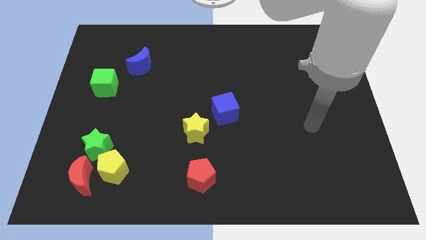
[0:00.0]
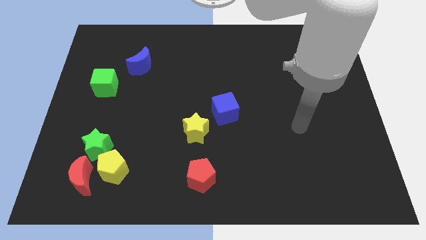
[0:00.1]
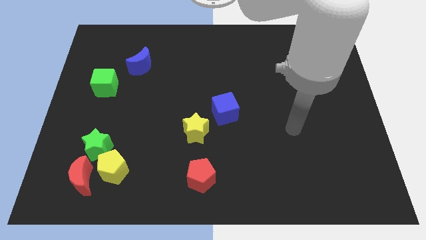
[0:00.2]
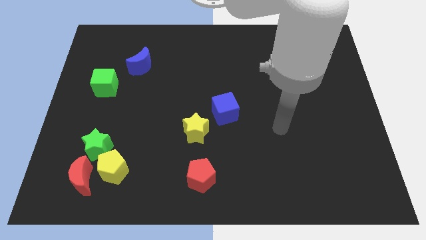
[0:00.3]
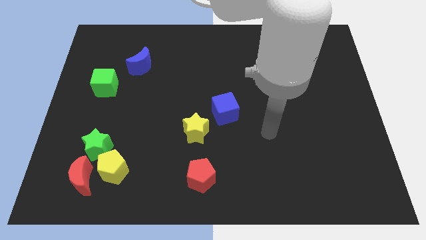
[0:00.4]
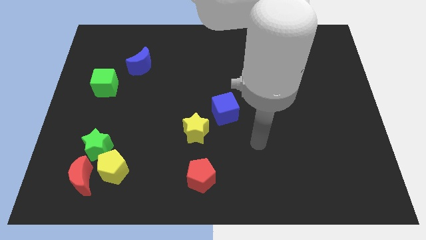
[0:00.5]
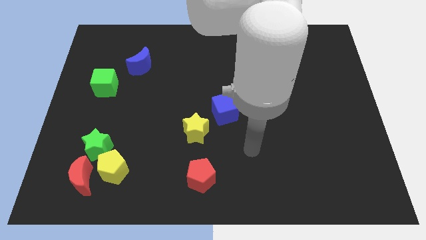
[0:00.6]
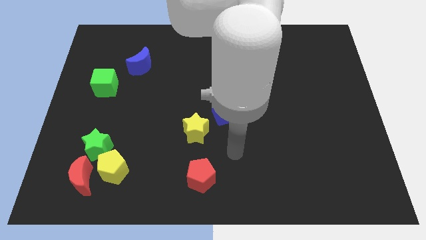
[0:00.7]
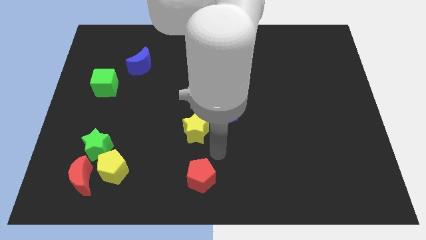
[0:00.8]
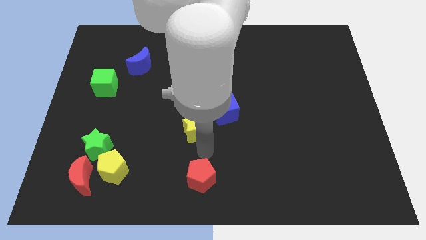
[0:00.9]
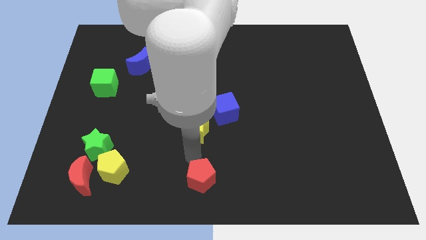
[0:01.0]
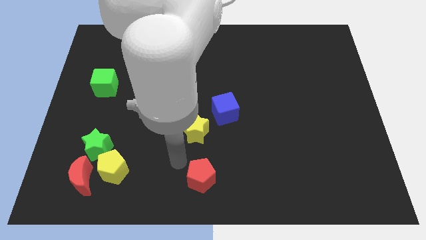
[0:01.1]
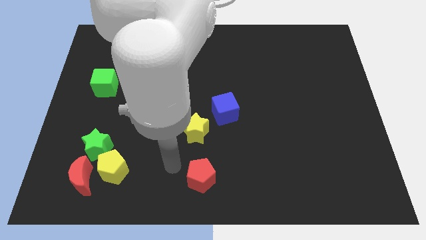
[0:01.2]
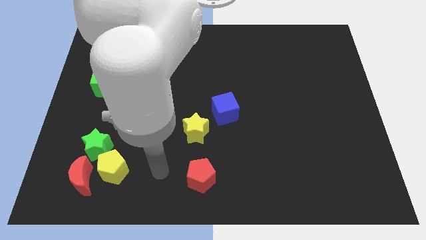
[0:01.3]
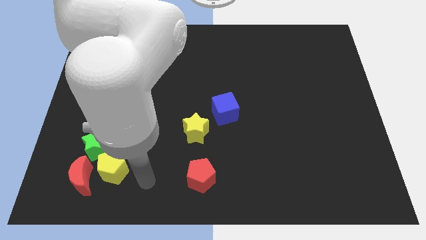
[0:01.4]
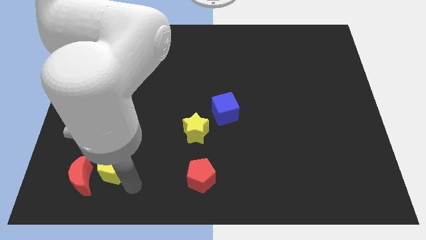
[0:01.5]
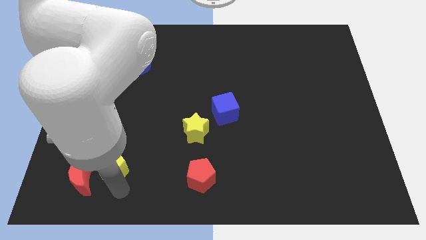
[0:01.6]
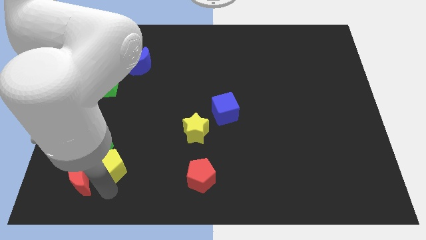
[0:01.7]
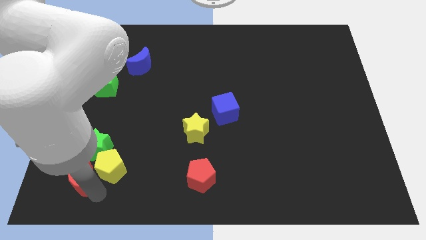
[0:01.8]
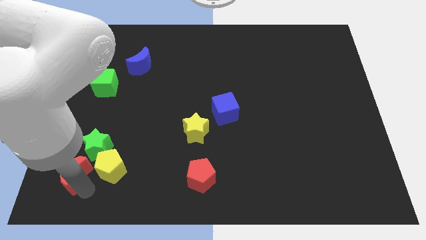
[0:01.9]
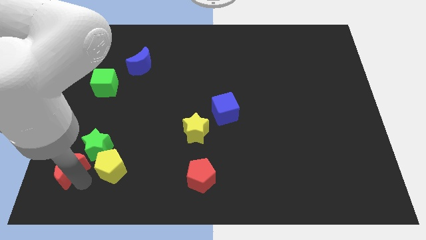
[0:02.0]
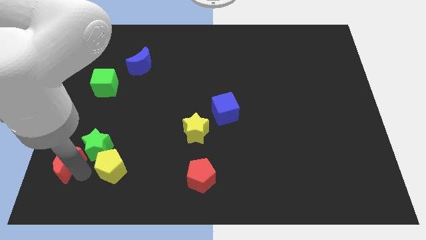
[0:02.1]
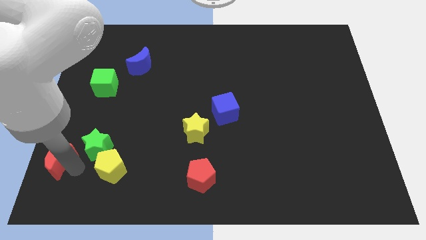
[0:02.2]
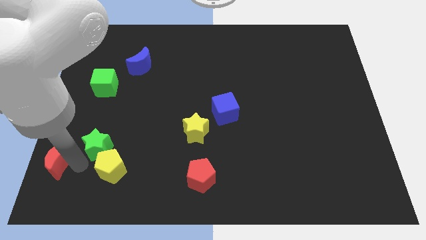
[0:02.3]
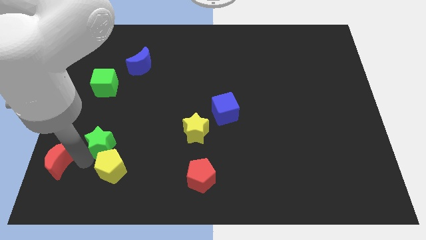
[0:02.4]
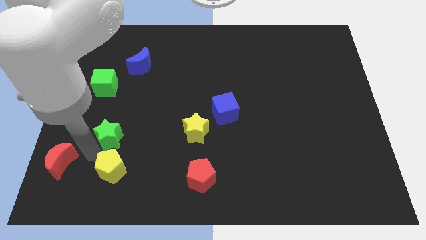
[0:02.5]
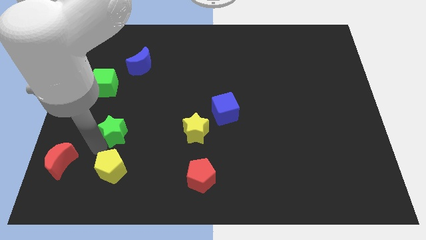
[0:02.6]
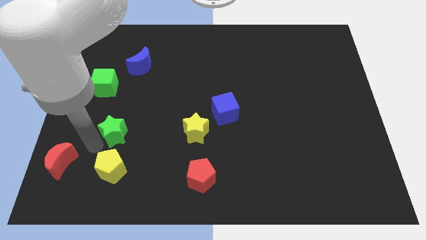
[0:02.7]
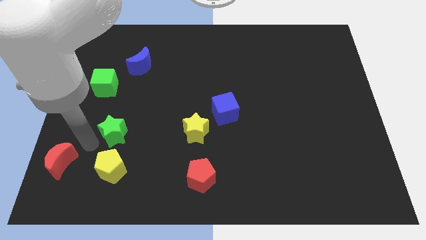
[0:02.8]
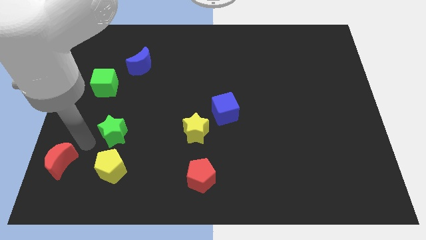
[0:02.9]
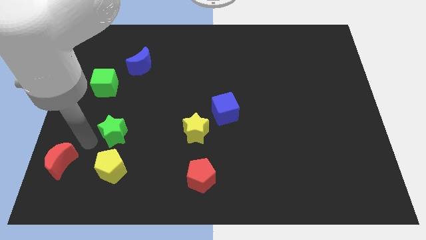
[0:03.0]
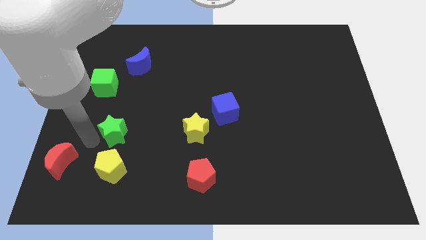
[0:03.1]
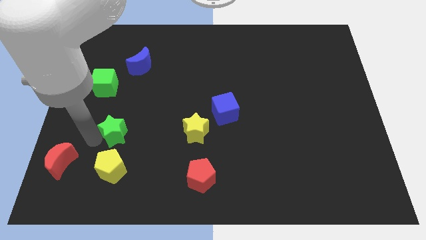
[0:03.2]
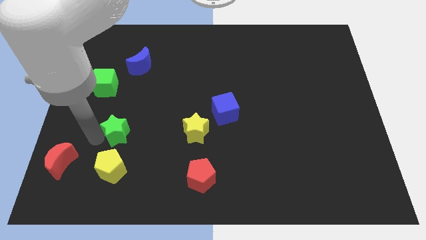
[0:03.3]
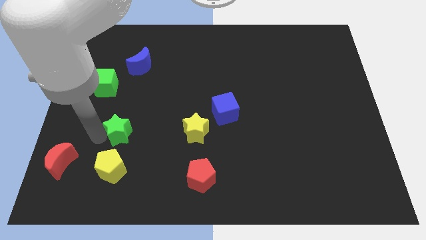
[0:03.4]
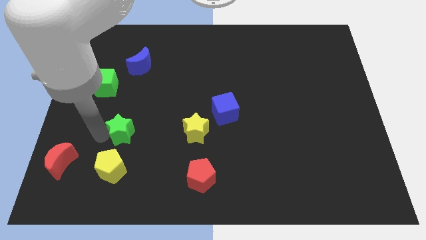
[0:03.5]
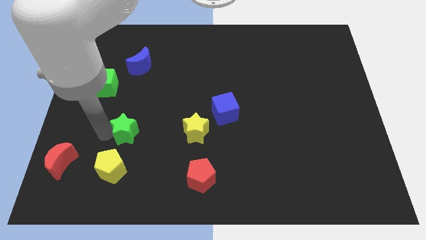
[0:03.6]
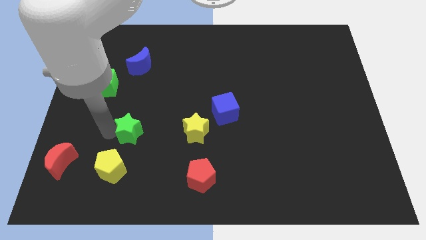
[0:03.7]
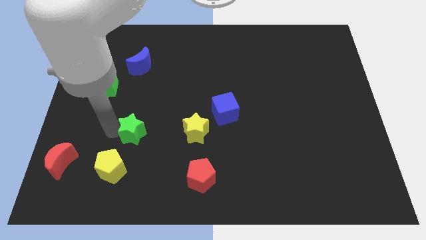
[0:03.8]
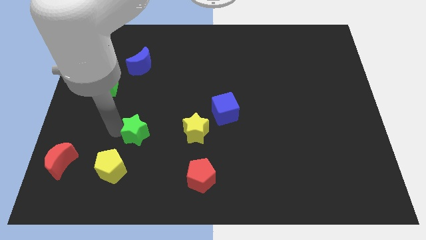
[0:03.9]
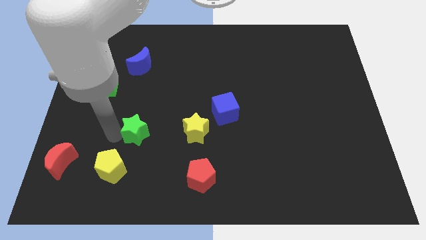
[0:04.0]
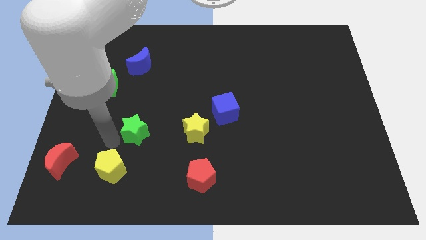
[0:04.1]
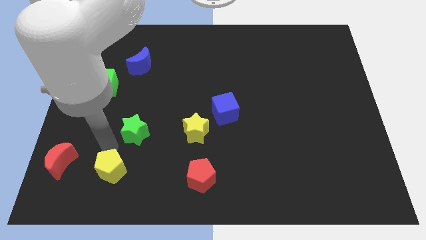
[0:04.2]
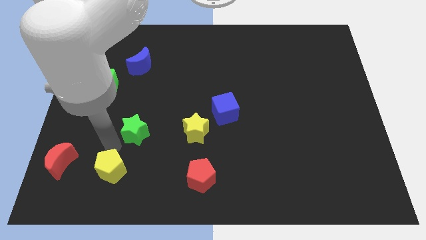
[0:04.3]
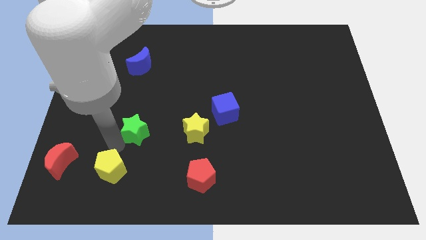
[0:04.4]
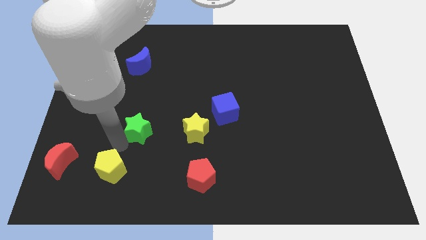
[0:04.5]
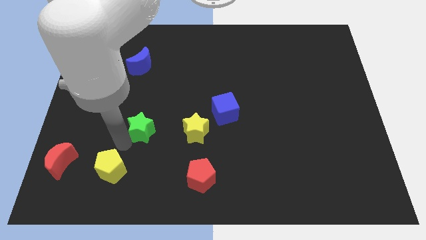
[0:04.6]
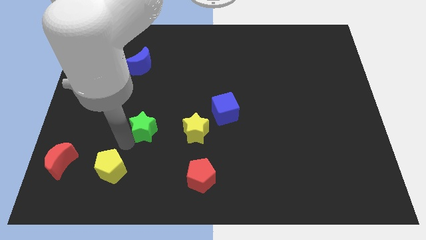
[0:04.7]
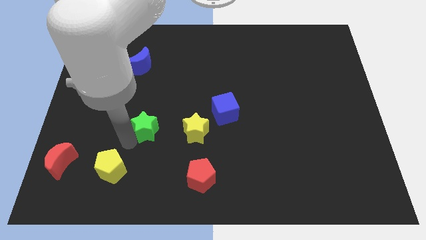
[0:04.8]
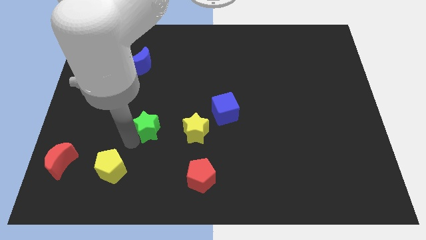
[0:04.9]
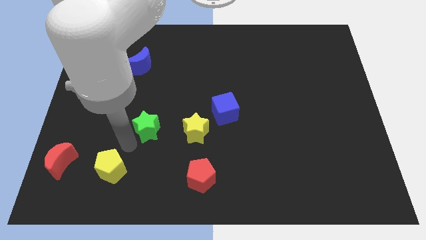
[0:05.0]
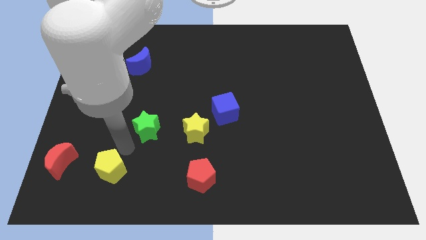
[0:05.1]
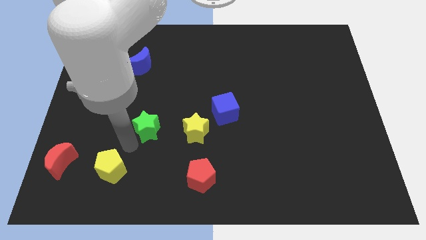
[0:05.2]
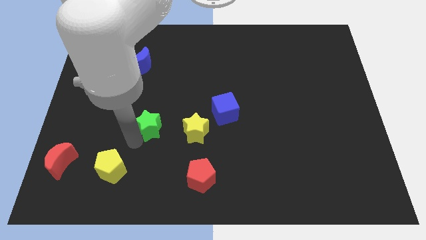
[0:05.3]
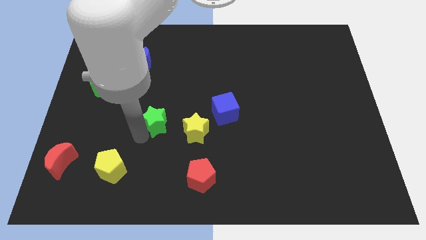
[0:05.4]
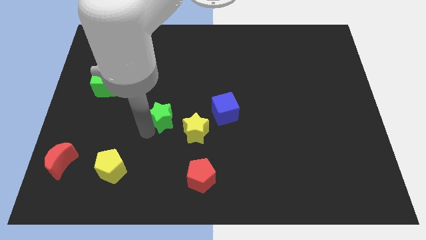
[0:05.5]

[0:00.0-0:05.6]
push the green star to the top left side of the yellow star

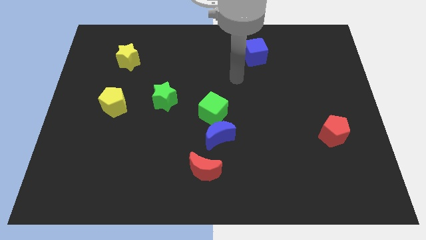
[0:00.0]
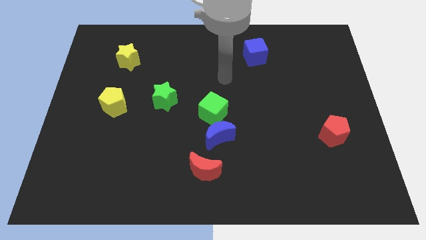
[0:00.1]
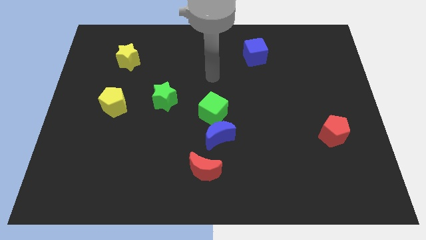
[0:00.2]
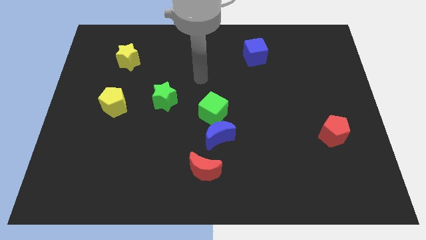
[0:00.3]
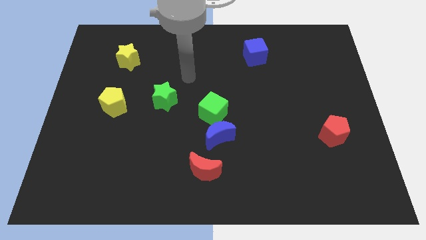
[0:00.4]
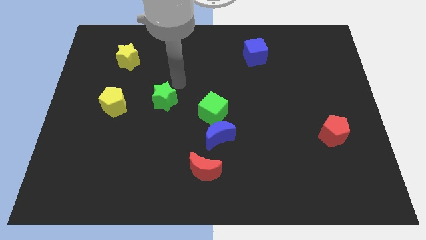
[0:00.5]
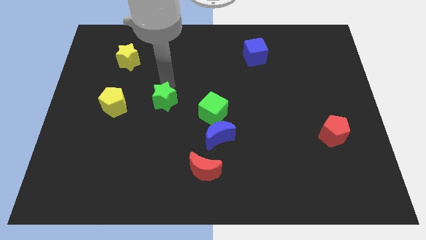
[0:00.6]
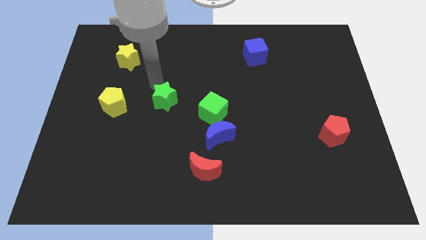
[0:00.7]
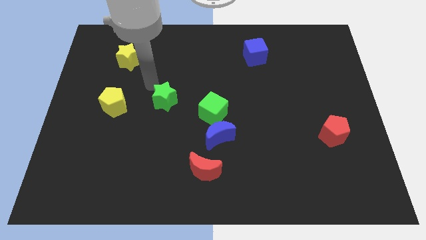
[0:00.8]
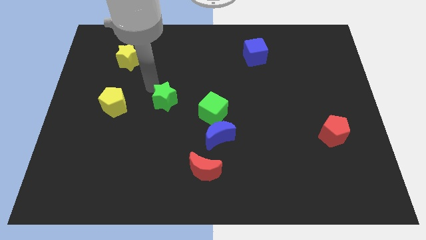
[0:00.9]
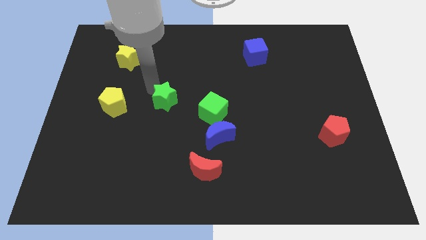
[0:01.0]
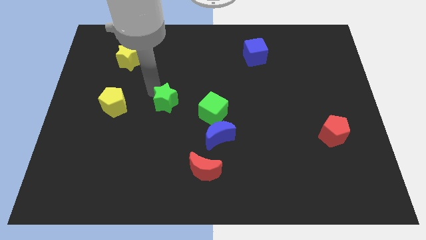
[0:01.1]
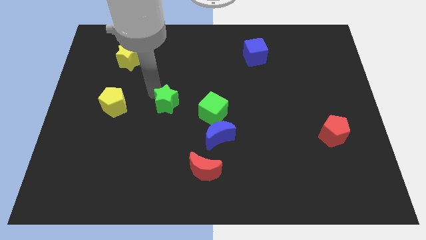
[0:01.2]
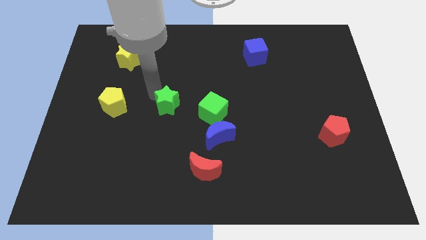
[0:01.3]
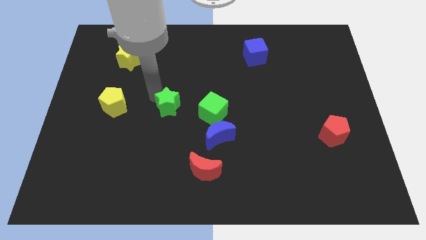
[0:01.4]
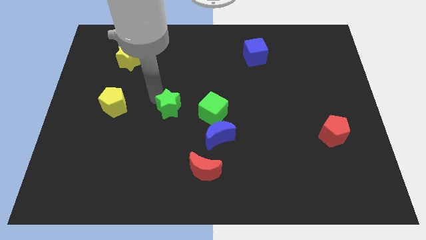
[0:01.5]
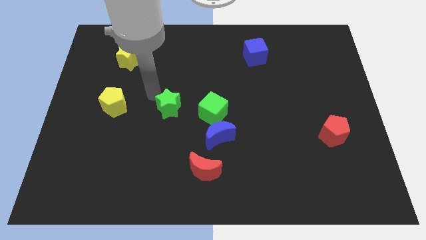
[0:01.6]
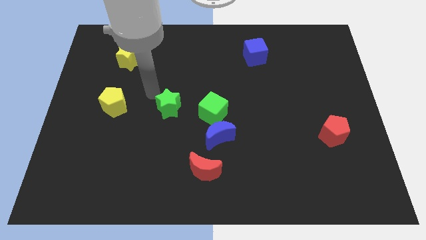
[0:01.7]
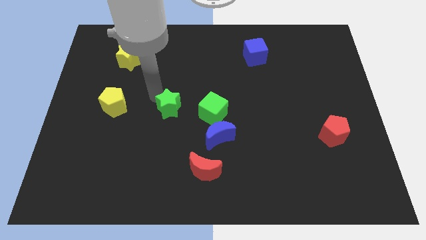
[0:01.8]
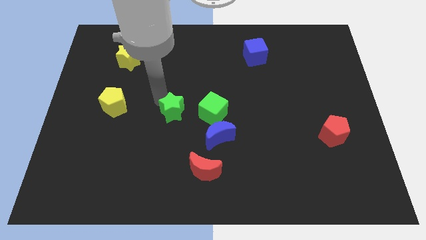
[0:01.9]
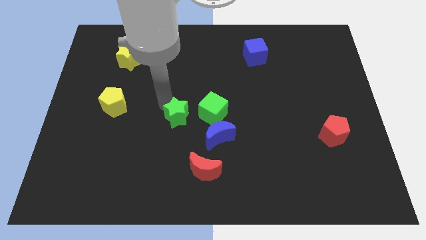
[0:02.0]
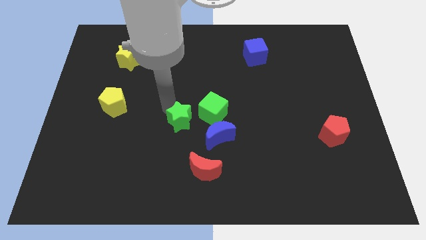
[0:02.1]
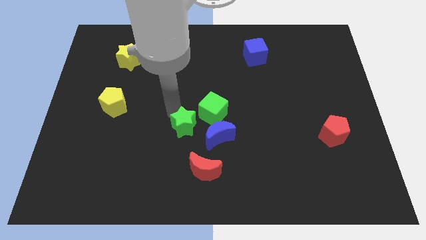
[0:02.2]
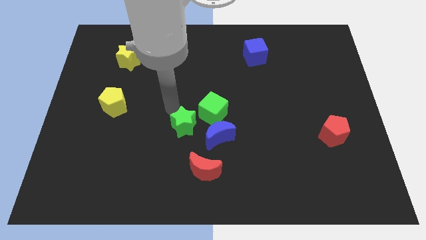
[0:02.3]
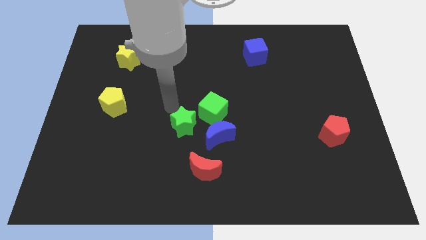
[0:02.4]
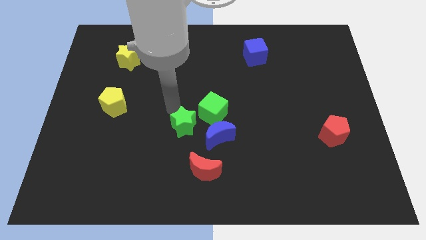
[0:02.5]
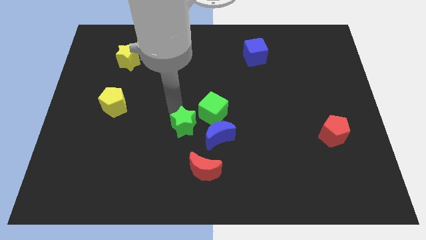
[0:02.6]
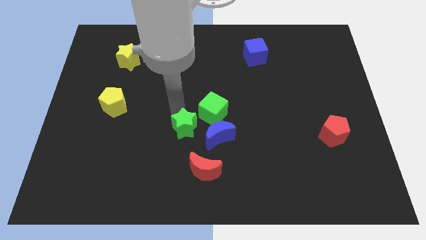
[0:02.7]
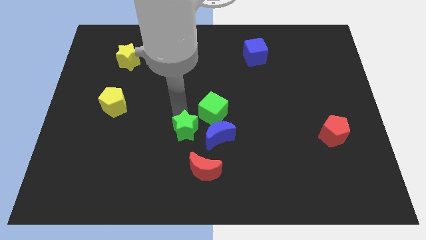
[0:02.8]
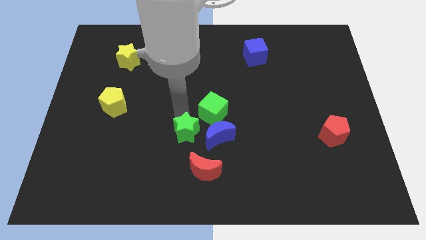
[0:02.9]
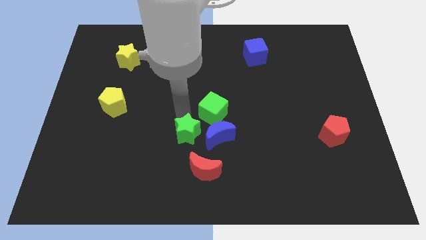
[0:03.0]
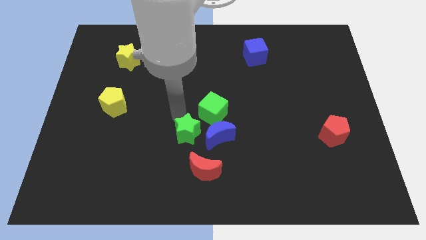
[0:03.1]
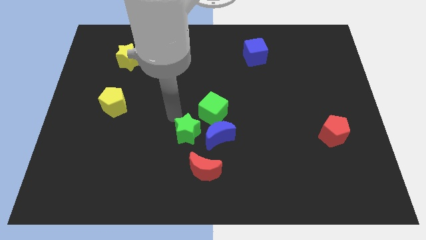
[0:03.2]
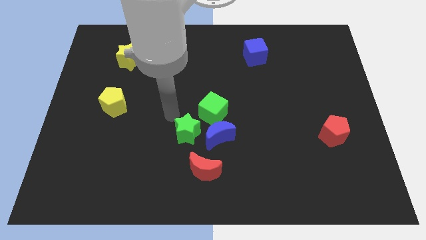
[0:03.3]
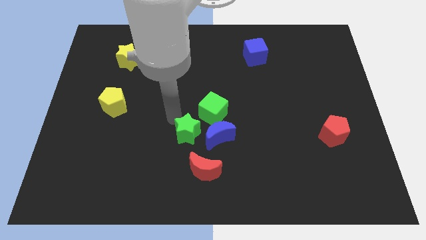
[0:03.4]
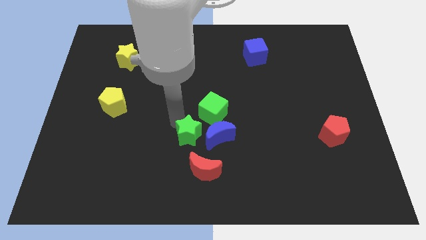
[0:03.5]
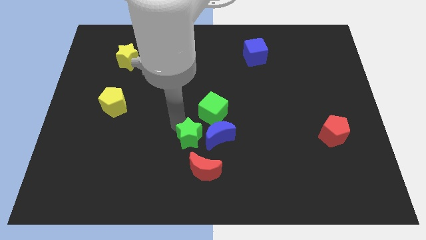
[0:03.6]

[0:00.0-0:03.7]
slide the green star to the bottom of the green cube
